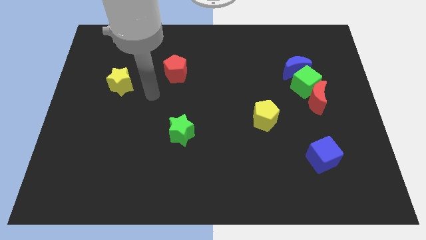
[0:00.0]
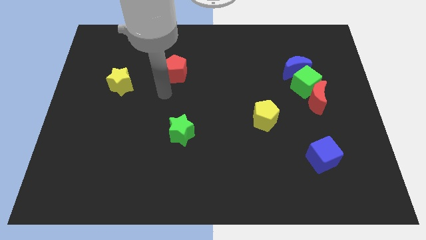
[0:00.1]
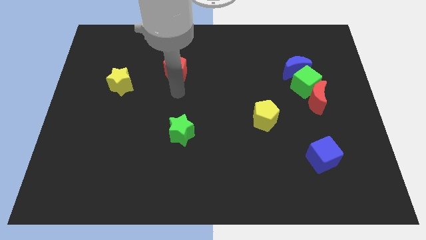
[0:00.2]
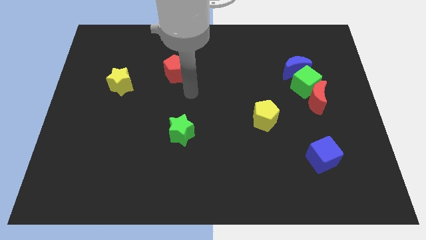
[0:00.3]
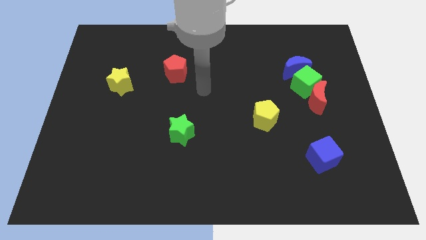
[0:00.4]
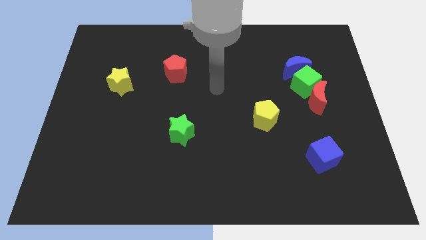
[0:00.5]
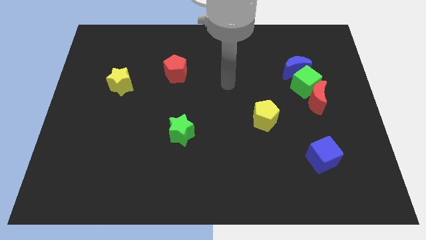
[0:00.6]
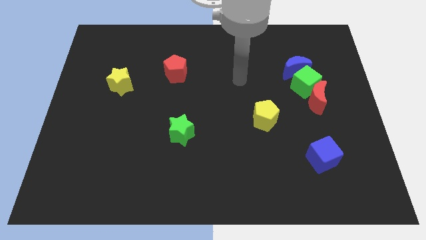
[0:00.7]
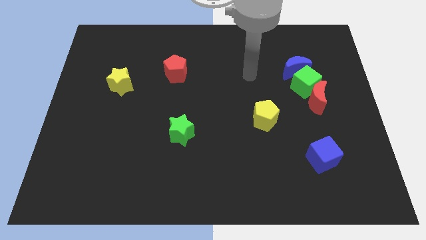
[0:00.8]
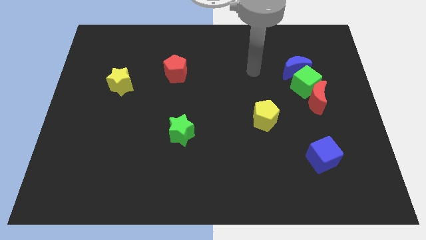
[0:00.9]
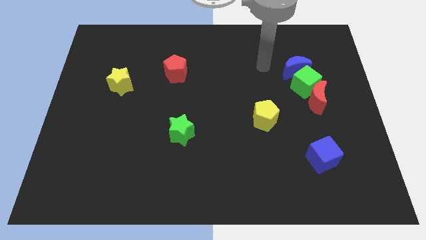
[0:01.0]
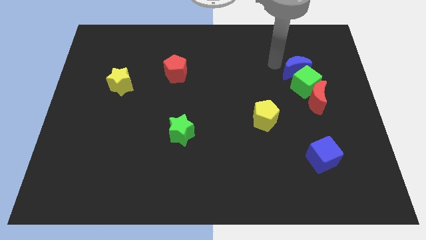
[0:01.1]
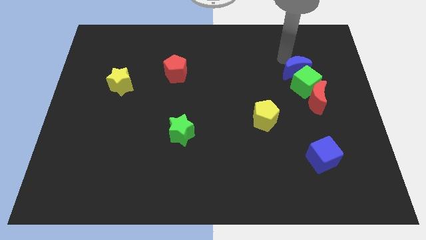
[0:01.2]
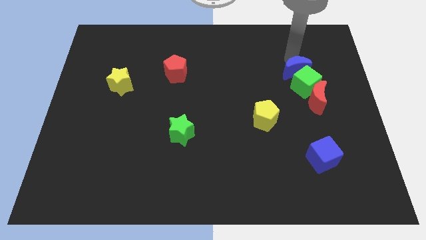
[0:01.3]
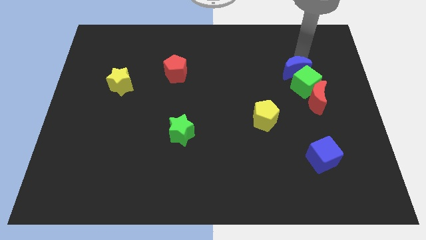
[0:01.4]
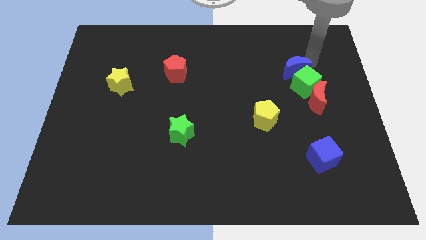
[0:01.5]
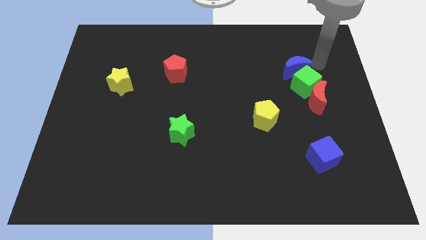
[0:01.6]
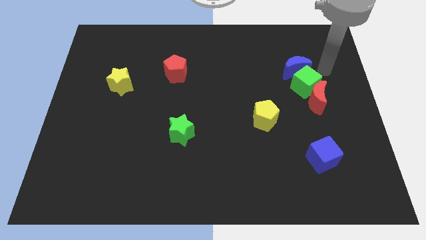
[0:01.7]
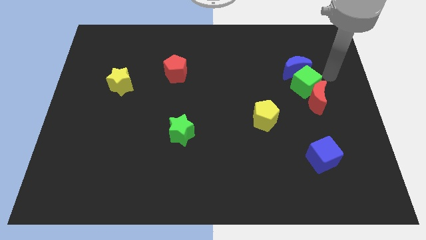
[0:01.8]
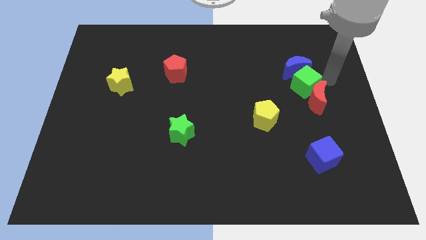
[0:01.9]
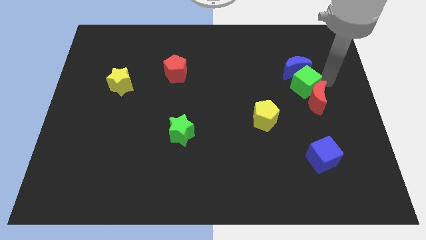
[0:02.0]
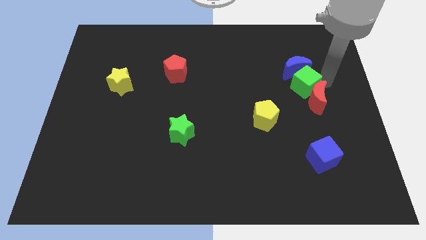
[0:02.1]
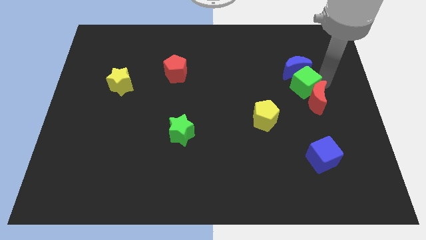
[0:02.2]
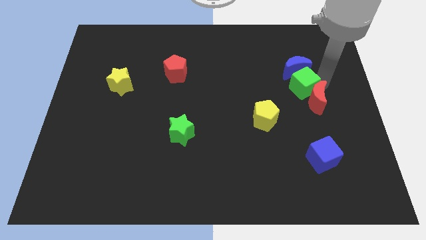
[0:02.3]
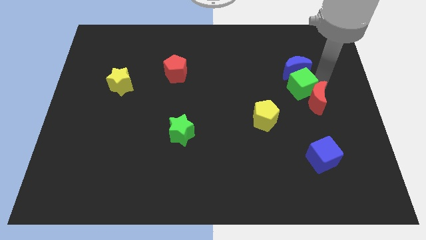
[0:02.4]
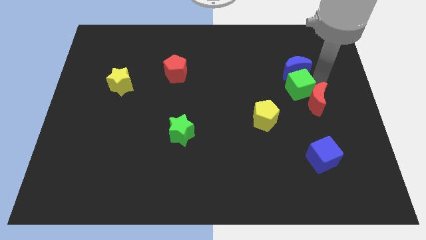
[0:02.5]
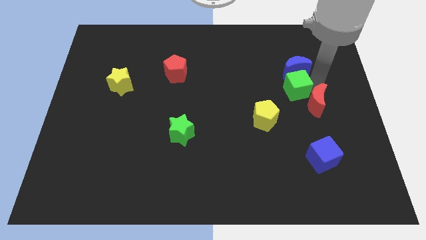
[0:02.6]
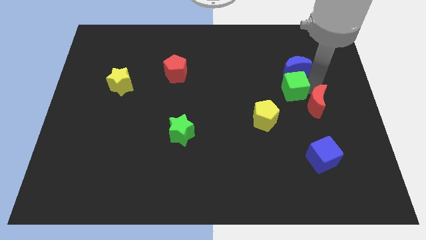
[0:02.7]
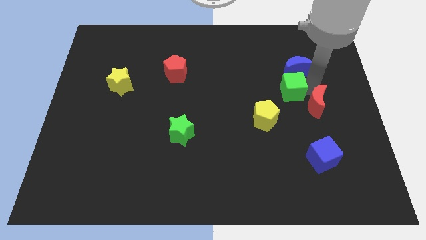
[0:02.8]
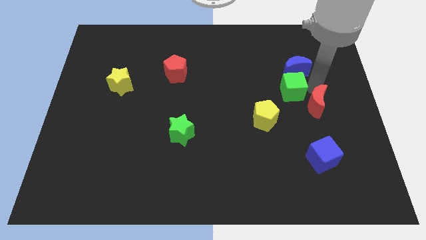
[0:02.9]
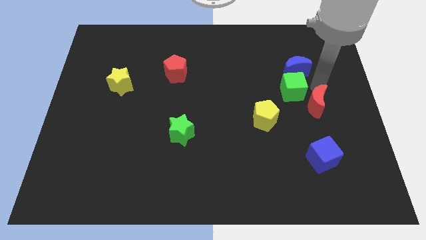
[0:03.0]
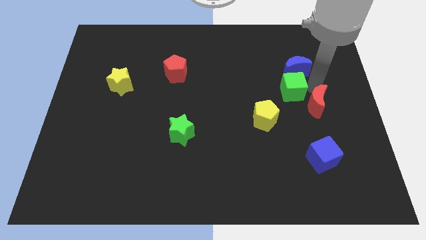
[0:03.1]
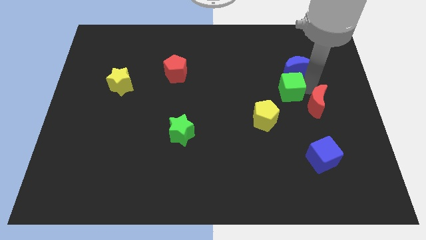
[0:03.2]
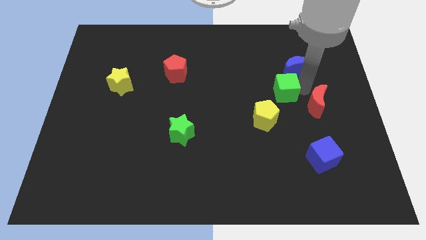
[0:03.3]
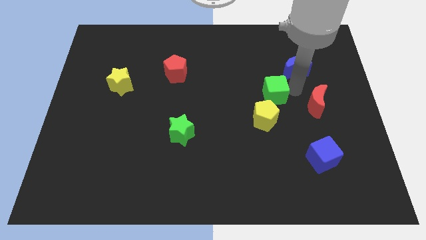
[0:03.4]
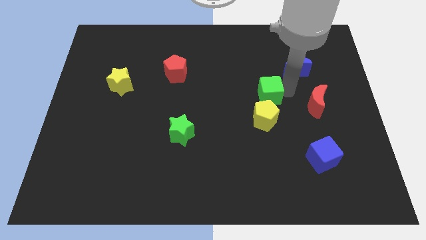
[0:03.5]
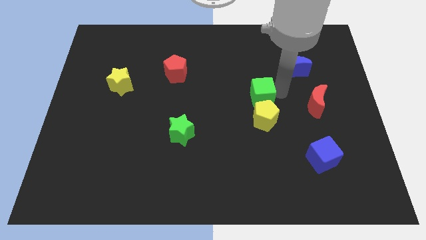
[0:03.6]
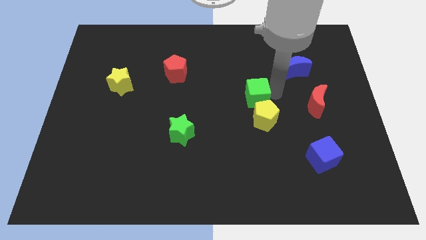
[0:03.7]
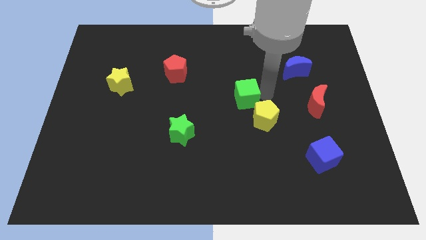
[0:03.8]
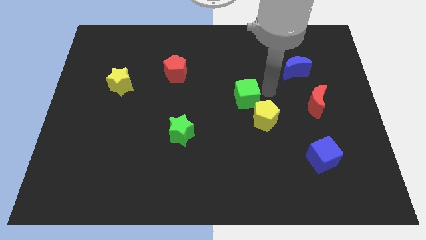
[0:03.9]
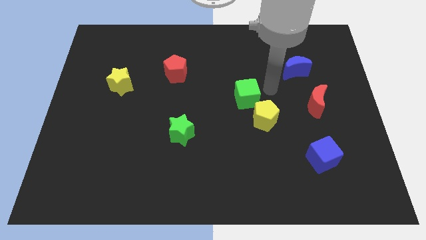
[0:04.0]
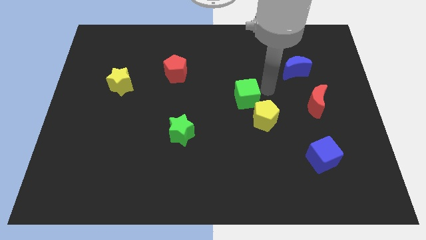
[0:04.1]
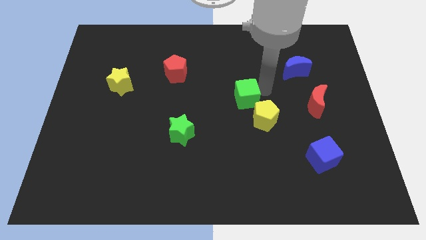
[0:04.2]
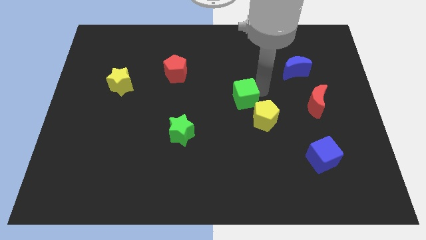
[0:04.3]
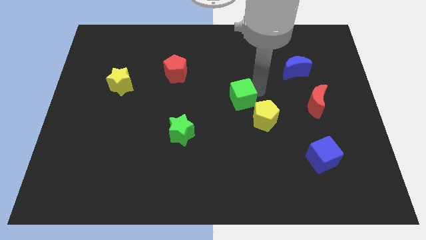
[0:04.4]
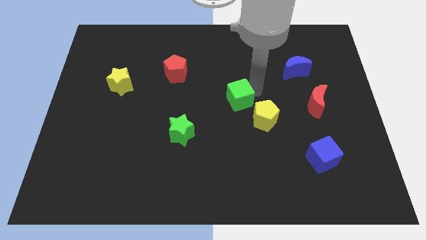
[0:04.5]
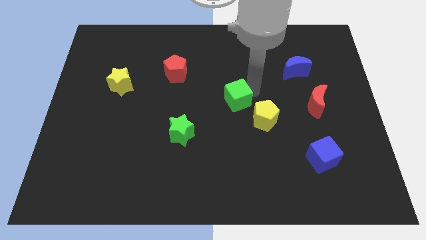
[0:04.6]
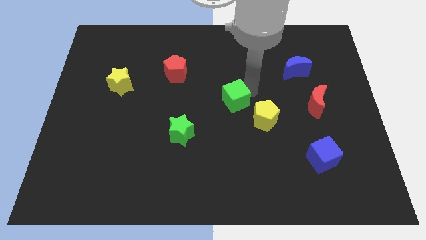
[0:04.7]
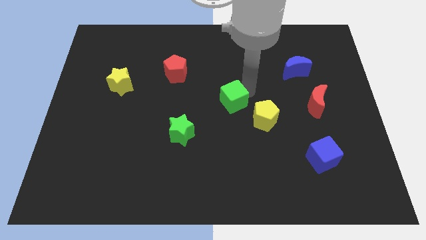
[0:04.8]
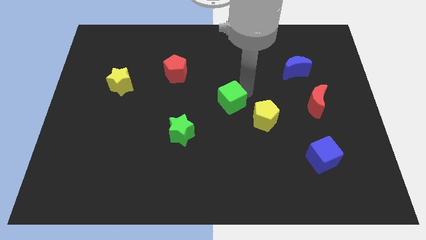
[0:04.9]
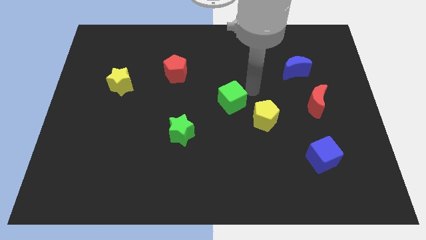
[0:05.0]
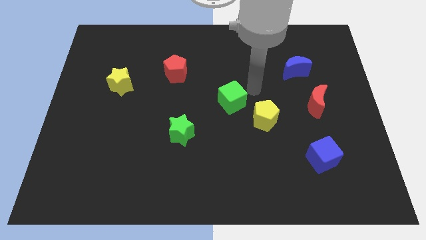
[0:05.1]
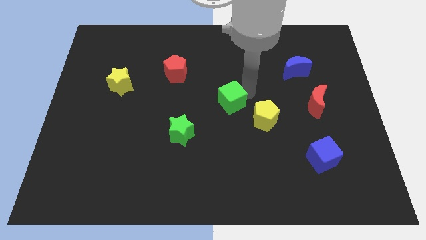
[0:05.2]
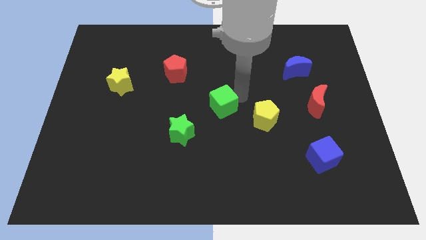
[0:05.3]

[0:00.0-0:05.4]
slide the green cube diagonally up and to the right of the green star

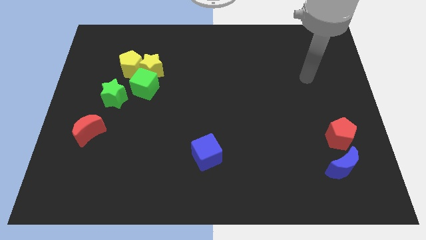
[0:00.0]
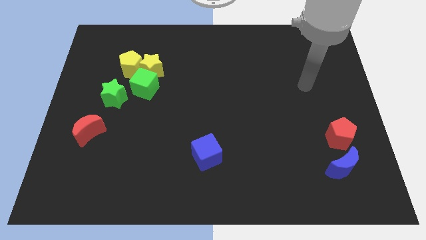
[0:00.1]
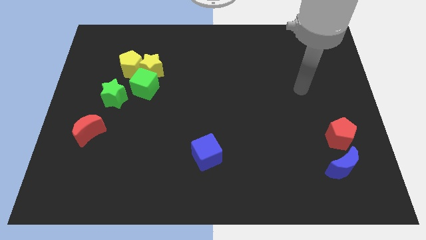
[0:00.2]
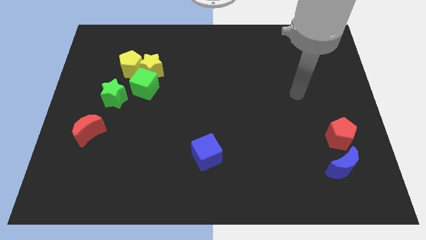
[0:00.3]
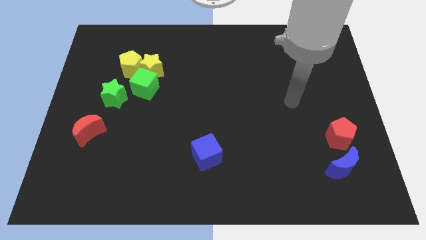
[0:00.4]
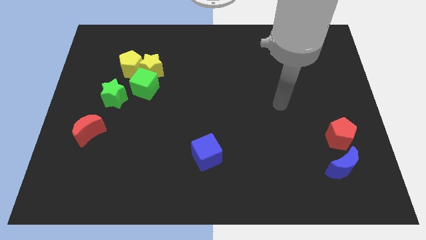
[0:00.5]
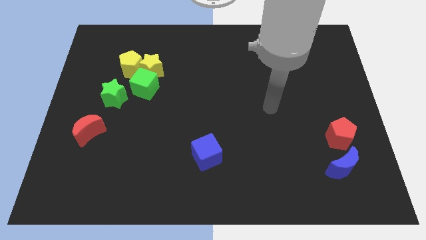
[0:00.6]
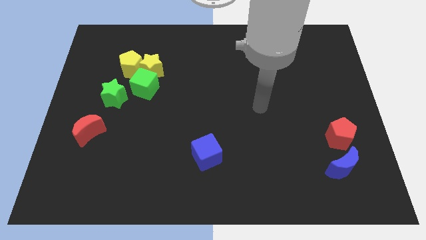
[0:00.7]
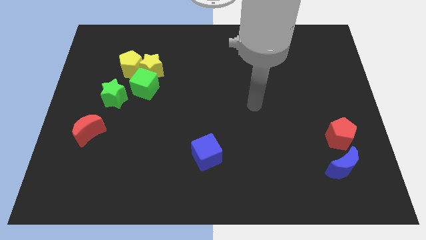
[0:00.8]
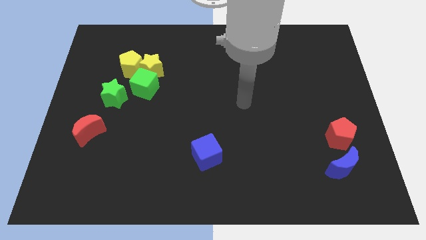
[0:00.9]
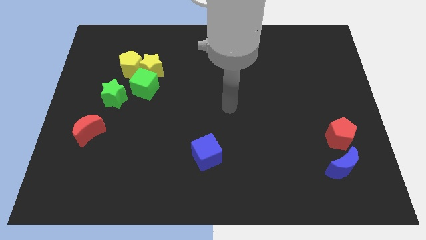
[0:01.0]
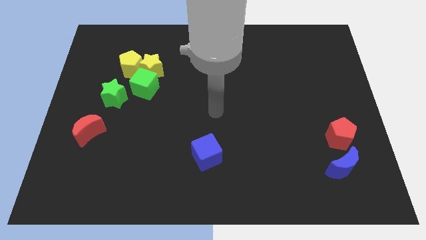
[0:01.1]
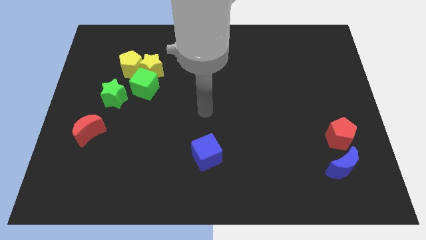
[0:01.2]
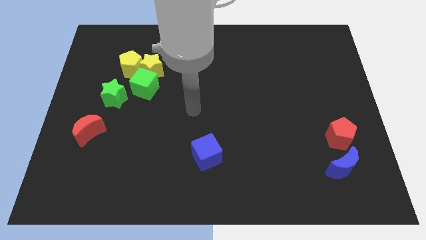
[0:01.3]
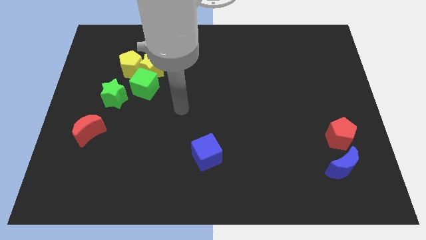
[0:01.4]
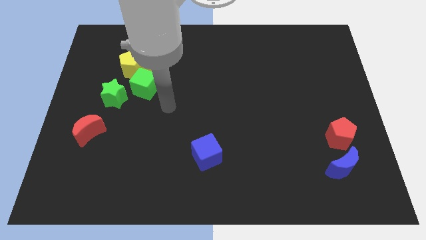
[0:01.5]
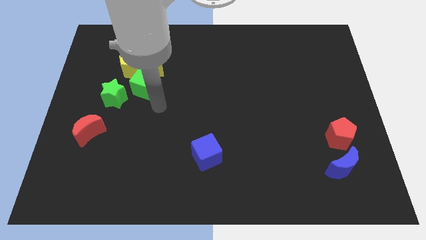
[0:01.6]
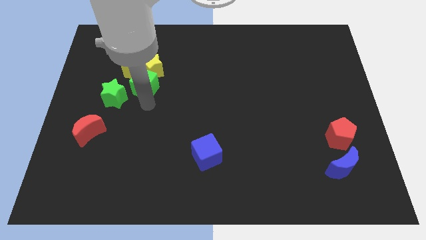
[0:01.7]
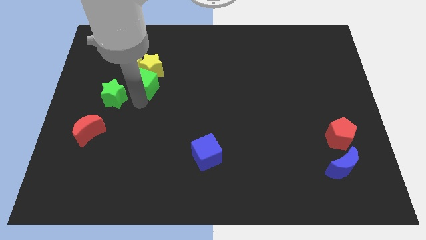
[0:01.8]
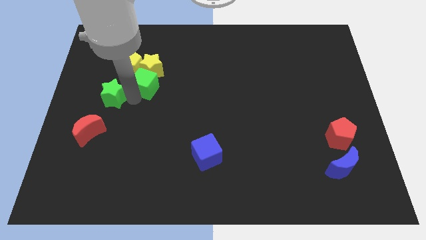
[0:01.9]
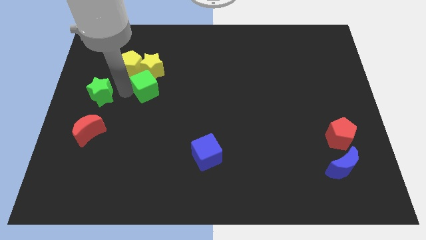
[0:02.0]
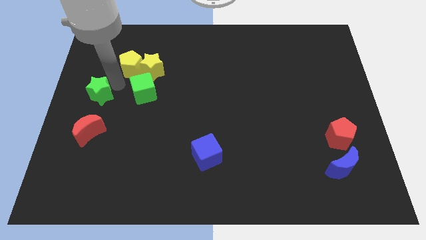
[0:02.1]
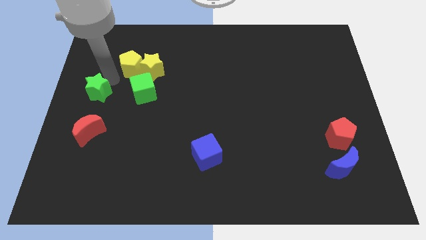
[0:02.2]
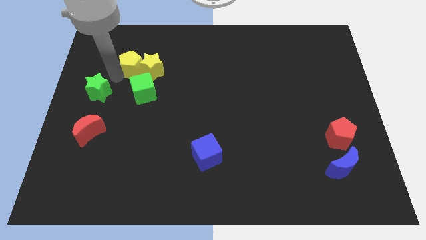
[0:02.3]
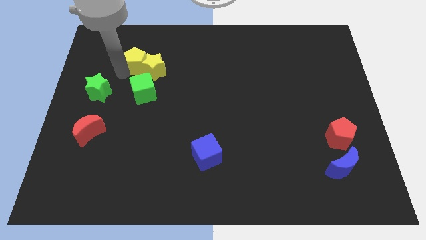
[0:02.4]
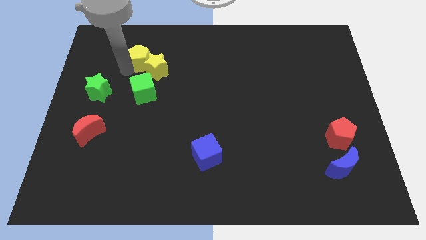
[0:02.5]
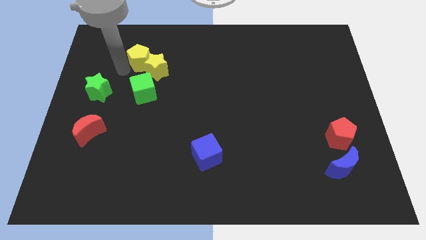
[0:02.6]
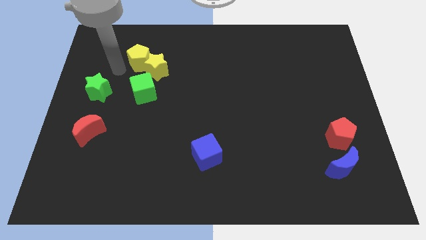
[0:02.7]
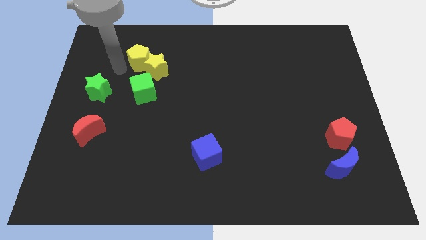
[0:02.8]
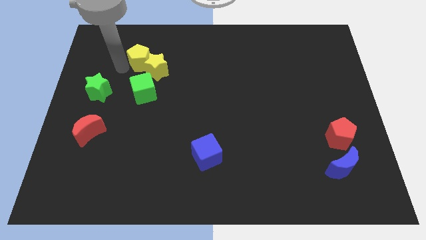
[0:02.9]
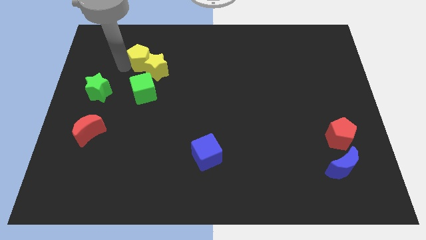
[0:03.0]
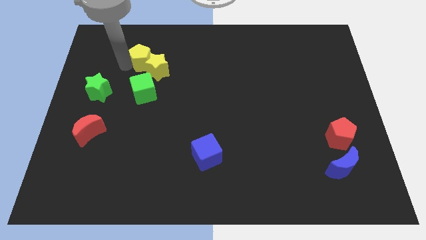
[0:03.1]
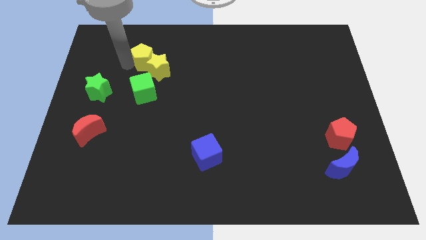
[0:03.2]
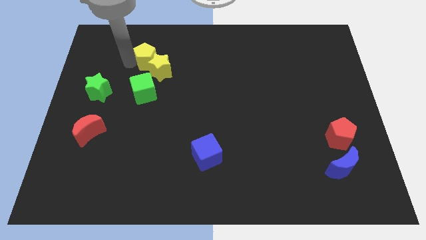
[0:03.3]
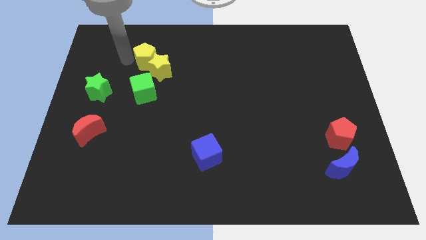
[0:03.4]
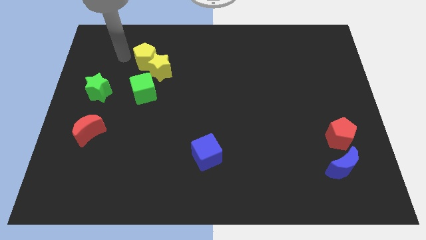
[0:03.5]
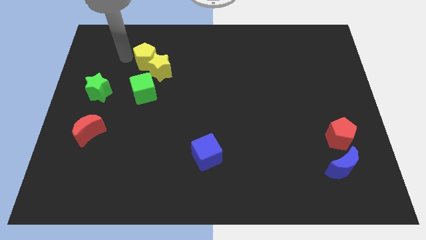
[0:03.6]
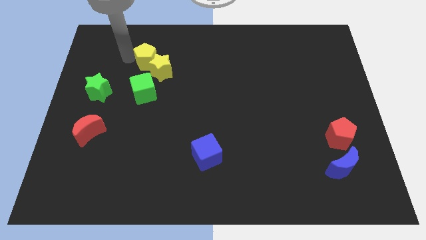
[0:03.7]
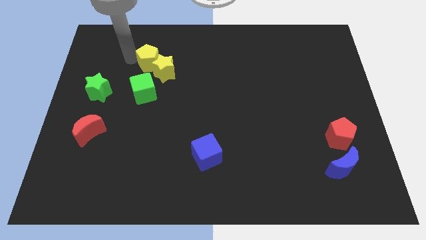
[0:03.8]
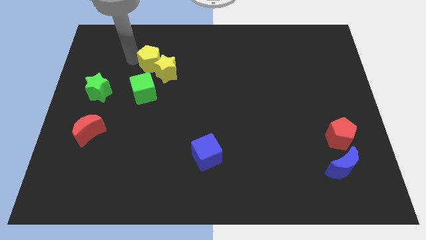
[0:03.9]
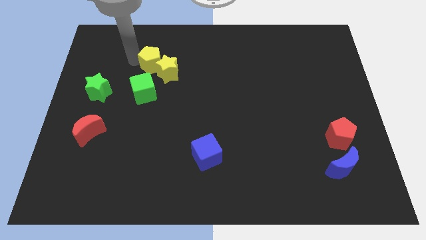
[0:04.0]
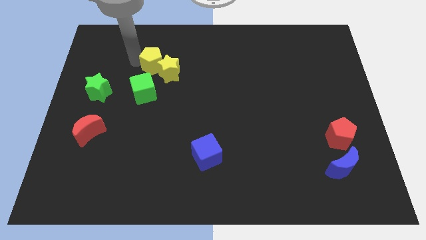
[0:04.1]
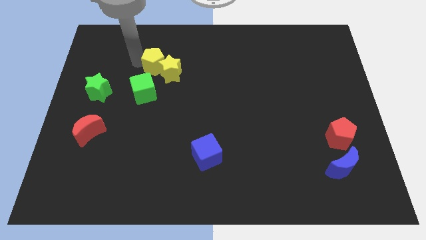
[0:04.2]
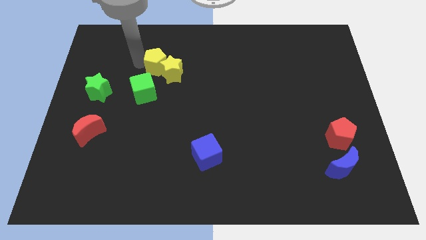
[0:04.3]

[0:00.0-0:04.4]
slide the yellow pentagon to the top right side of the green cube
